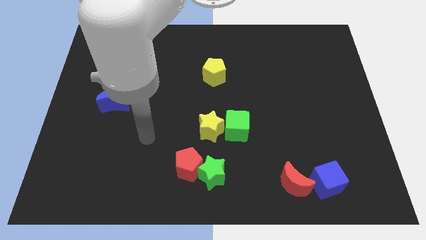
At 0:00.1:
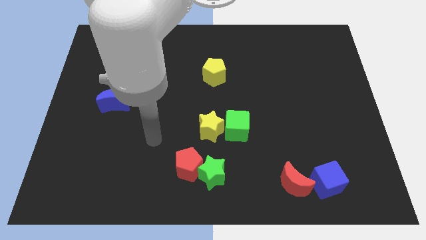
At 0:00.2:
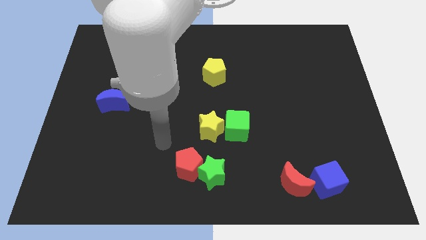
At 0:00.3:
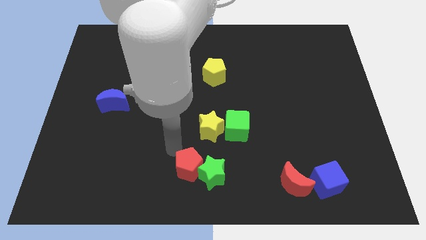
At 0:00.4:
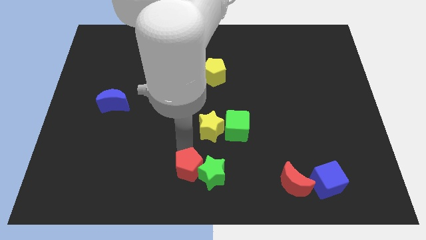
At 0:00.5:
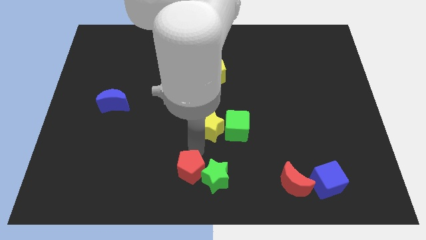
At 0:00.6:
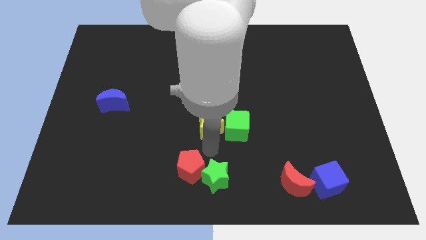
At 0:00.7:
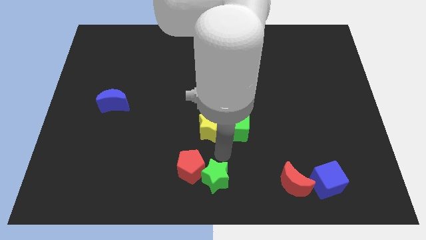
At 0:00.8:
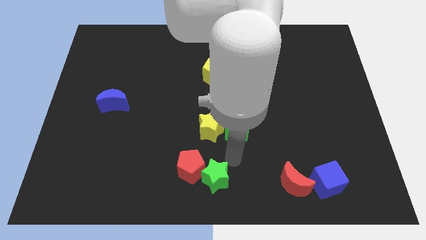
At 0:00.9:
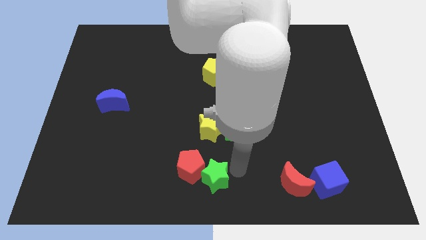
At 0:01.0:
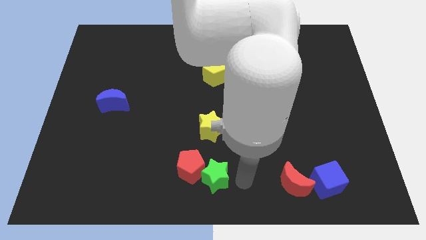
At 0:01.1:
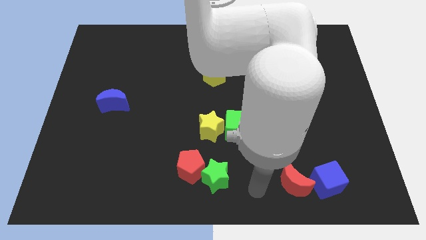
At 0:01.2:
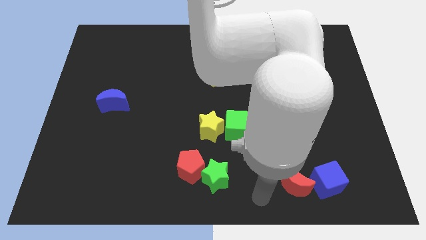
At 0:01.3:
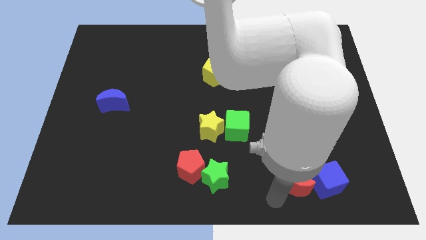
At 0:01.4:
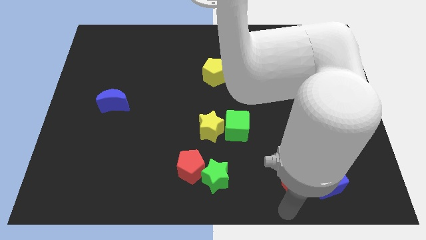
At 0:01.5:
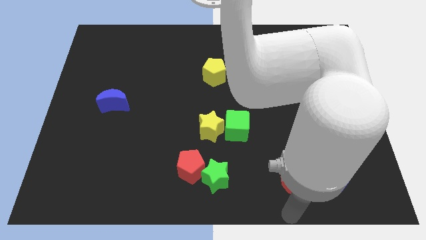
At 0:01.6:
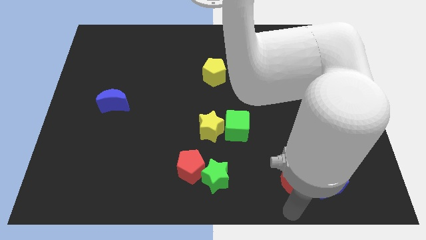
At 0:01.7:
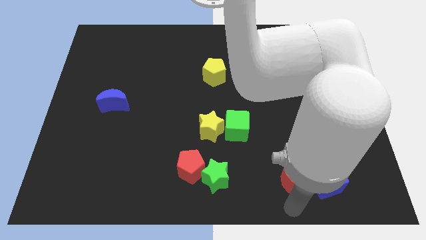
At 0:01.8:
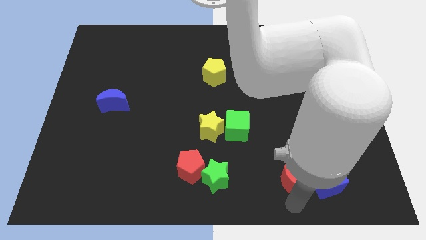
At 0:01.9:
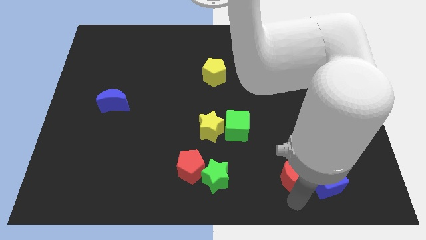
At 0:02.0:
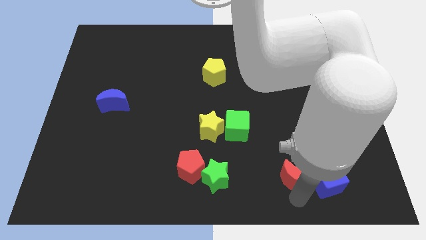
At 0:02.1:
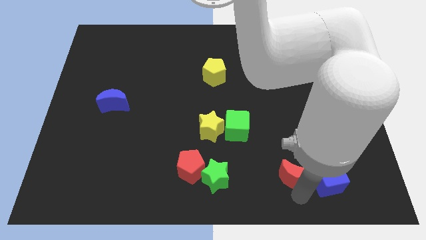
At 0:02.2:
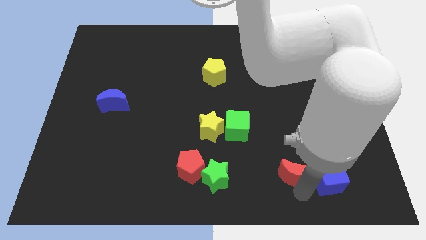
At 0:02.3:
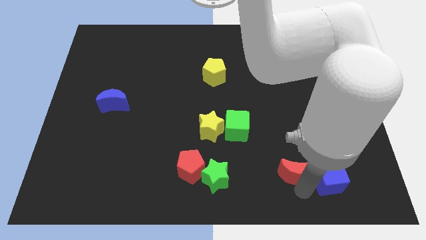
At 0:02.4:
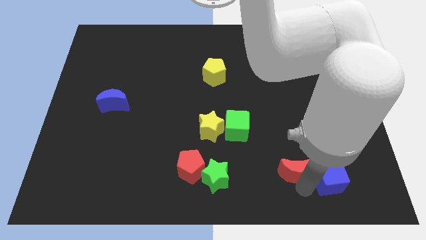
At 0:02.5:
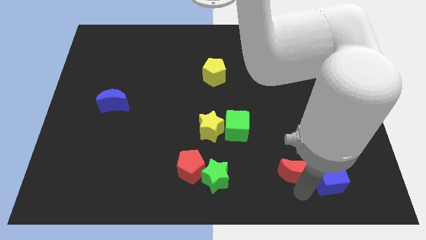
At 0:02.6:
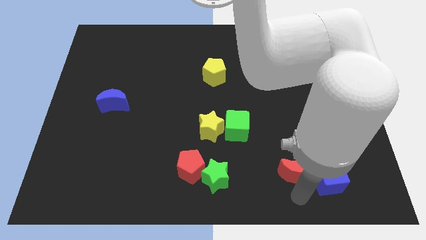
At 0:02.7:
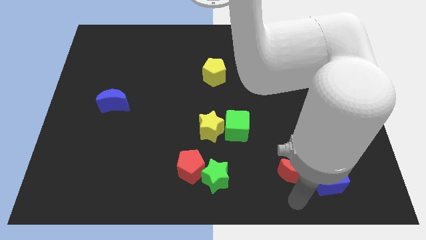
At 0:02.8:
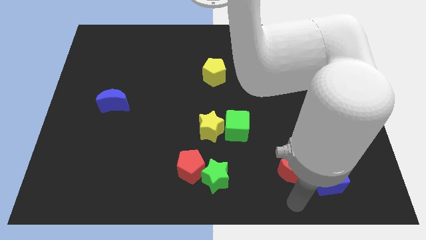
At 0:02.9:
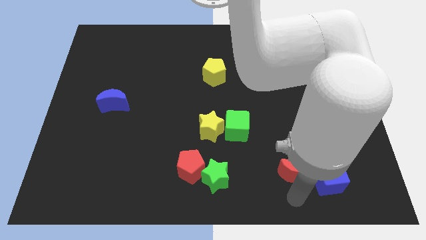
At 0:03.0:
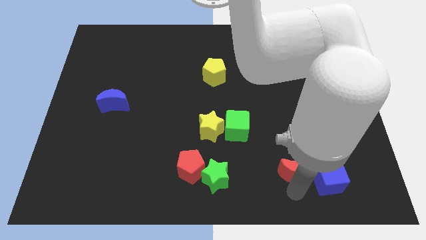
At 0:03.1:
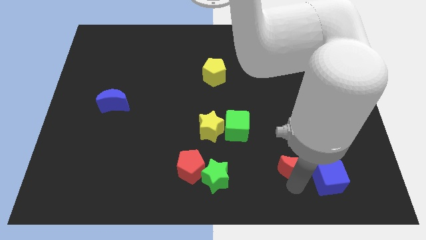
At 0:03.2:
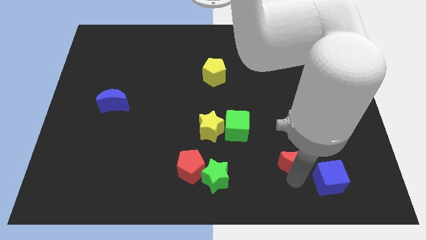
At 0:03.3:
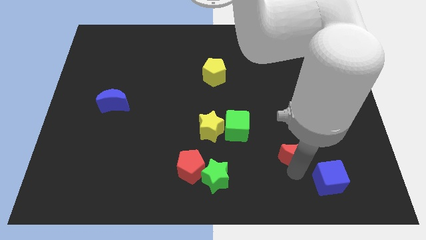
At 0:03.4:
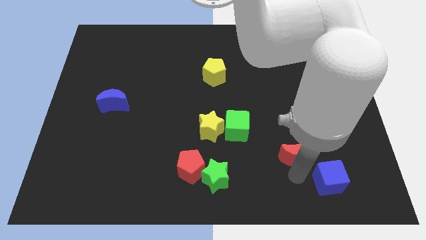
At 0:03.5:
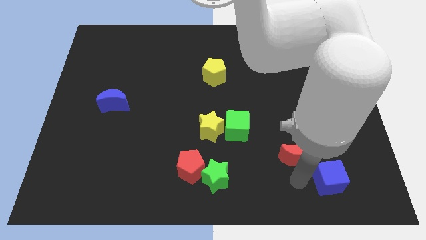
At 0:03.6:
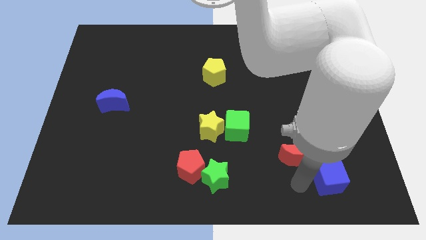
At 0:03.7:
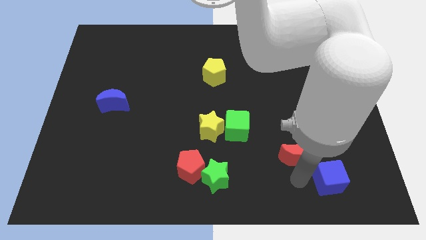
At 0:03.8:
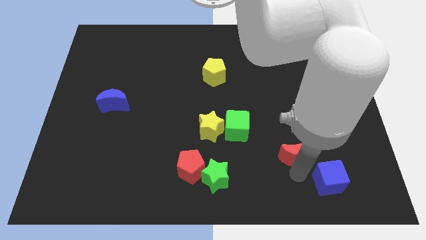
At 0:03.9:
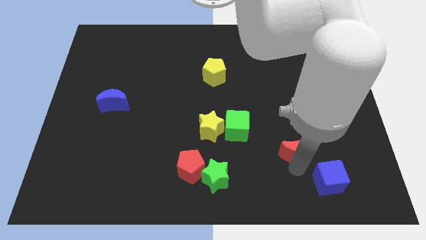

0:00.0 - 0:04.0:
push the red moon slightly up

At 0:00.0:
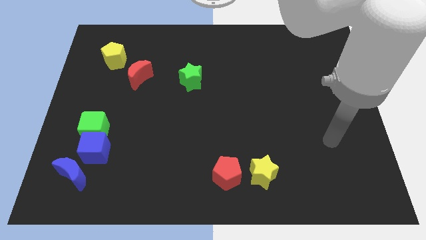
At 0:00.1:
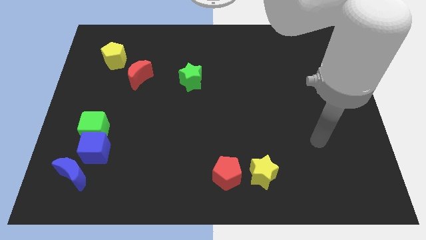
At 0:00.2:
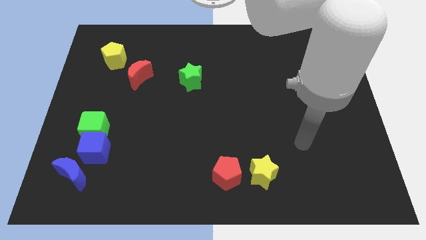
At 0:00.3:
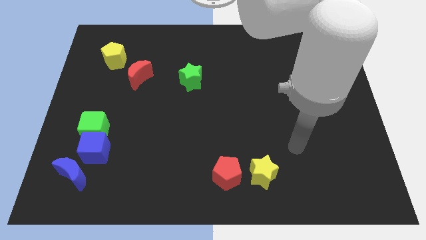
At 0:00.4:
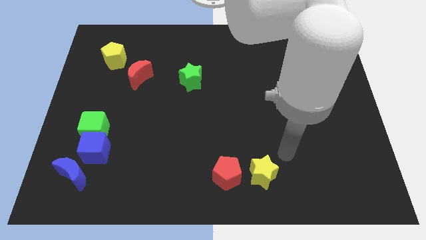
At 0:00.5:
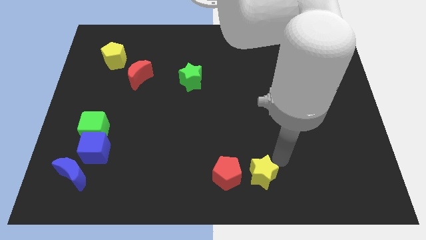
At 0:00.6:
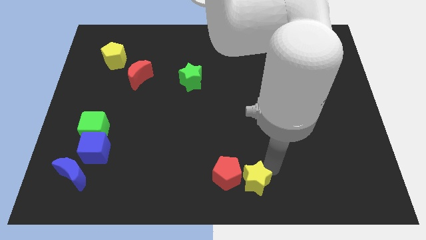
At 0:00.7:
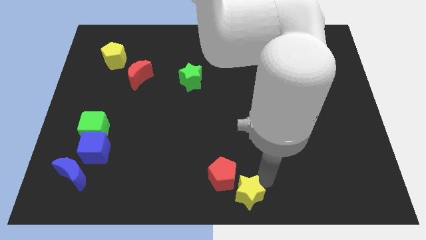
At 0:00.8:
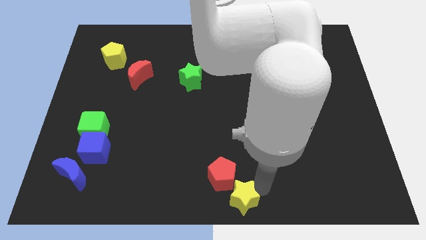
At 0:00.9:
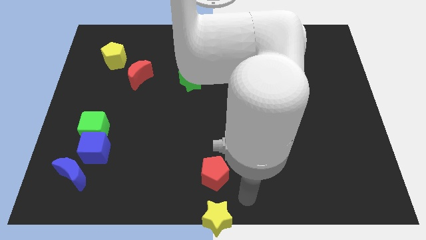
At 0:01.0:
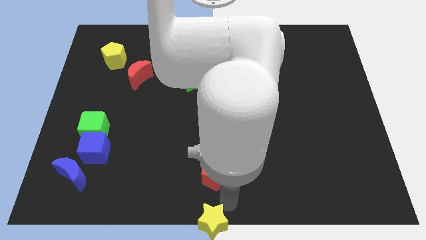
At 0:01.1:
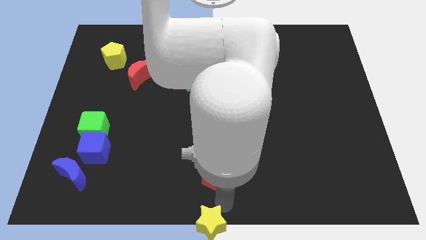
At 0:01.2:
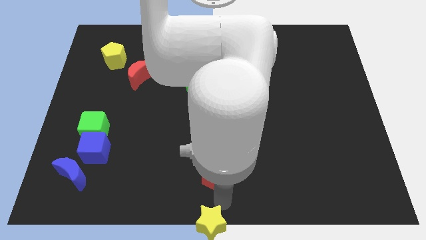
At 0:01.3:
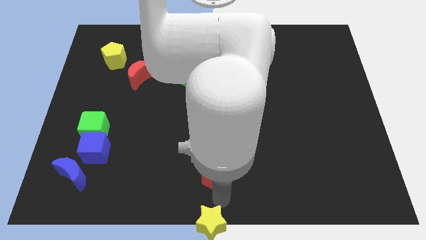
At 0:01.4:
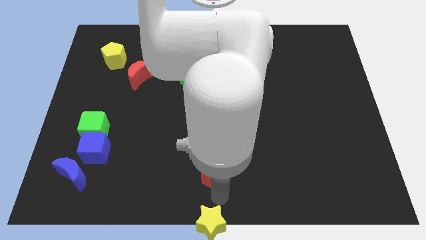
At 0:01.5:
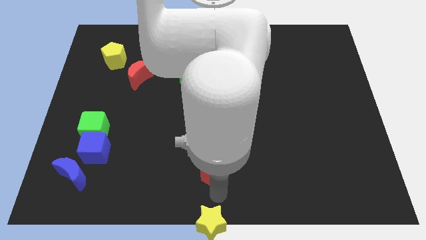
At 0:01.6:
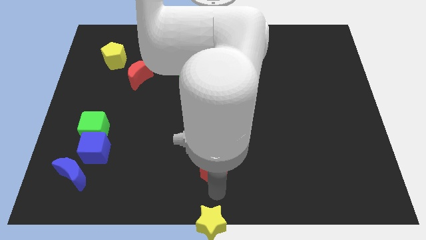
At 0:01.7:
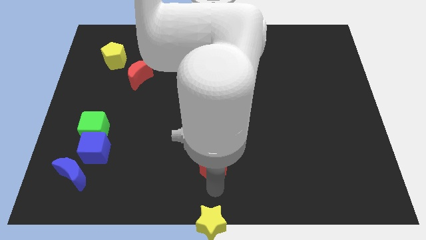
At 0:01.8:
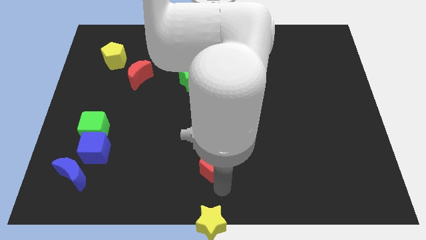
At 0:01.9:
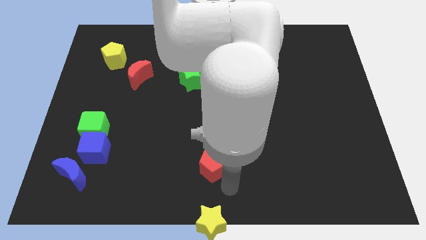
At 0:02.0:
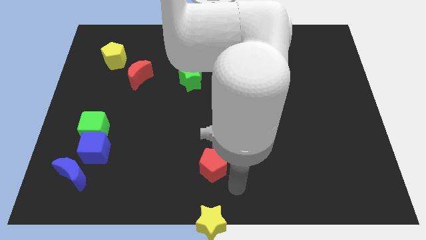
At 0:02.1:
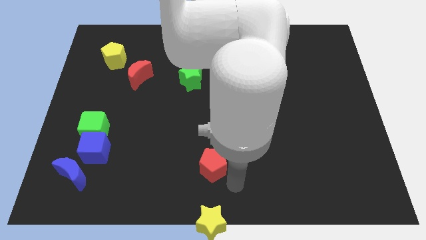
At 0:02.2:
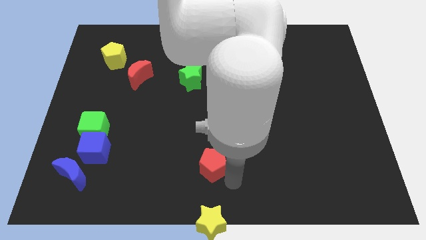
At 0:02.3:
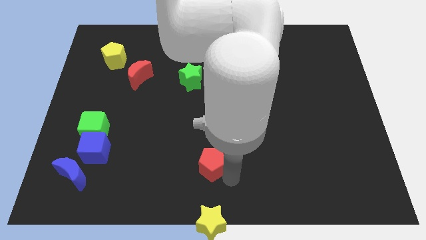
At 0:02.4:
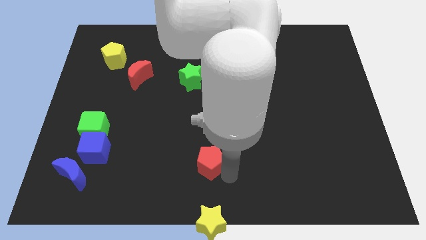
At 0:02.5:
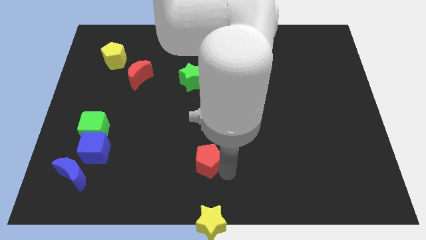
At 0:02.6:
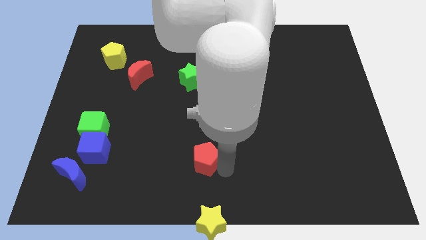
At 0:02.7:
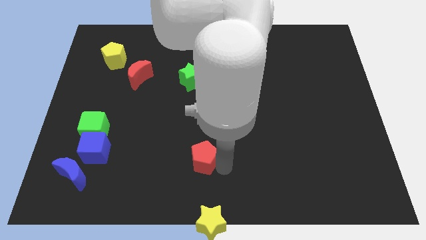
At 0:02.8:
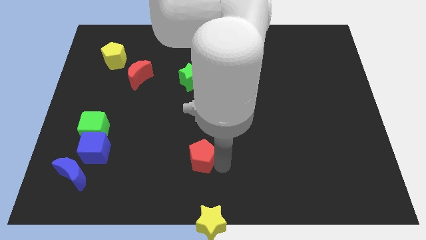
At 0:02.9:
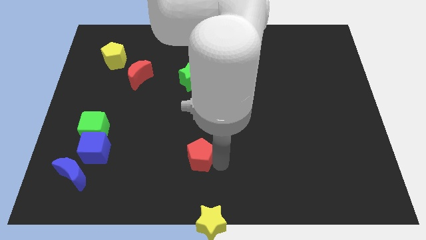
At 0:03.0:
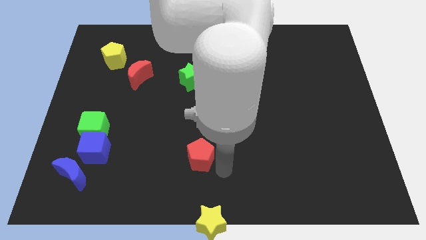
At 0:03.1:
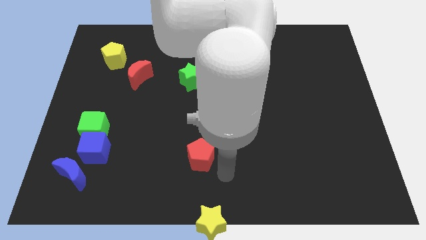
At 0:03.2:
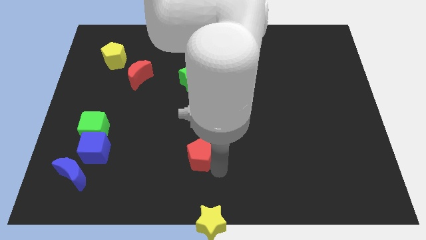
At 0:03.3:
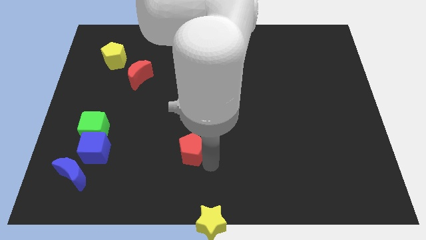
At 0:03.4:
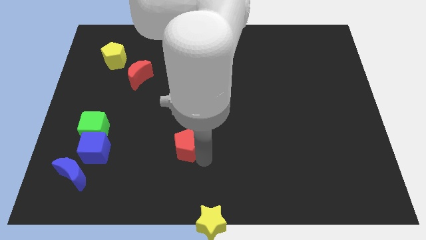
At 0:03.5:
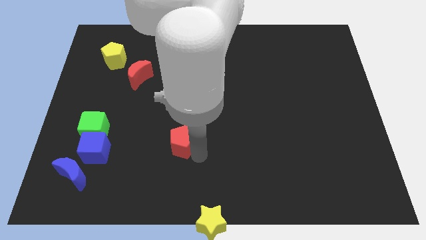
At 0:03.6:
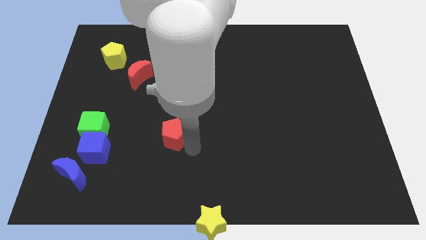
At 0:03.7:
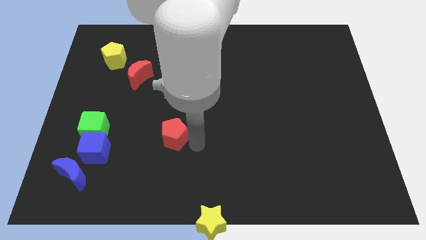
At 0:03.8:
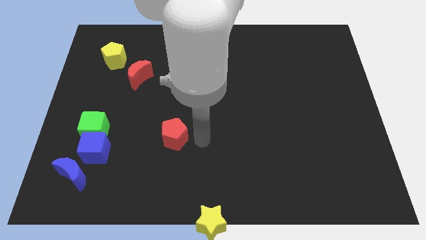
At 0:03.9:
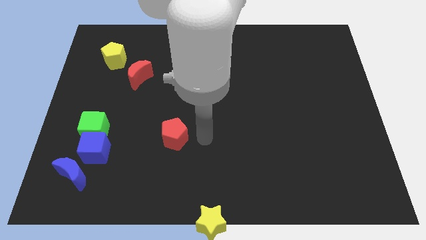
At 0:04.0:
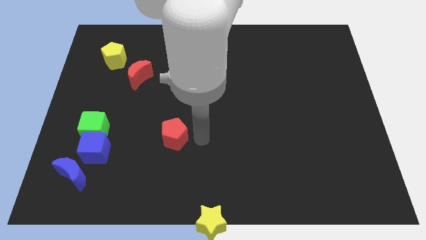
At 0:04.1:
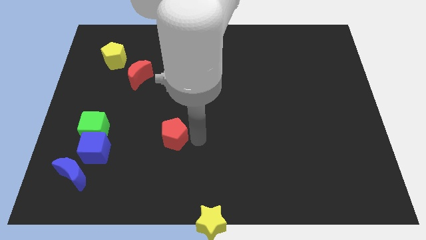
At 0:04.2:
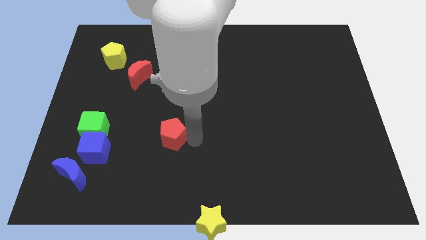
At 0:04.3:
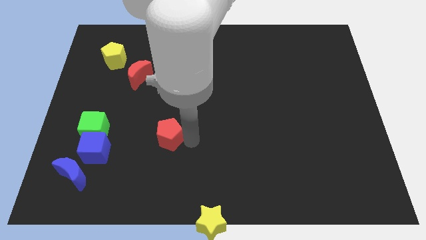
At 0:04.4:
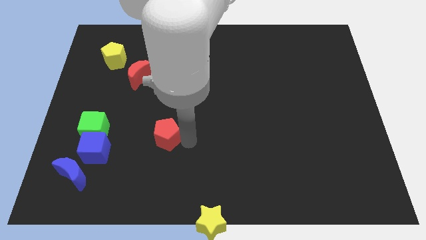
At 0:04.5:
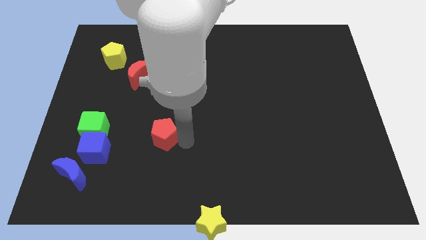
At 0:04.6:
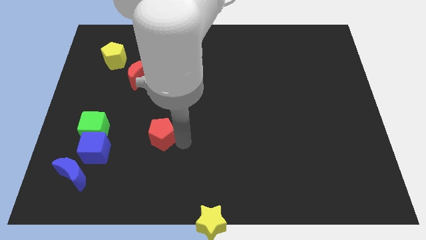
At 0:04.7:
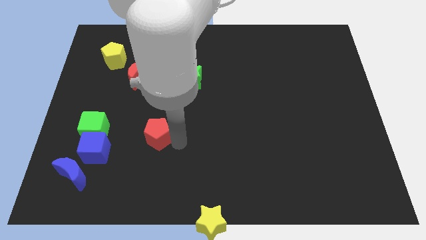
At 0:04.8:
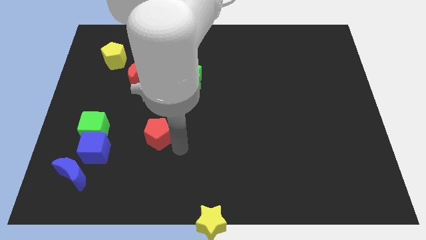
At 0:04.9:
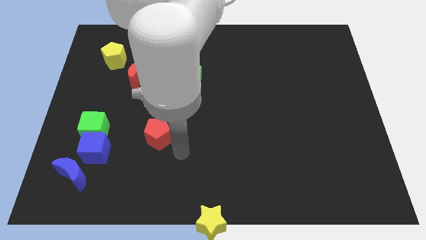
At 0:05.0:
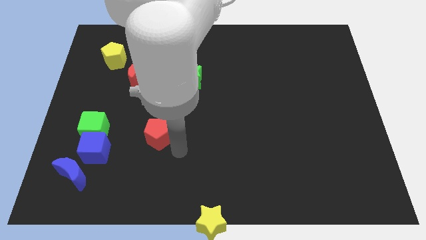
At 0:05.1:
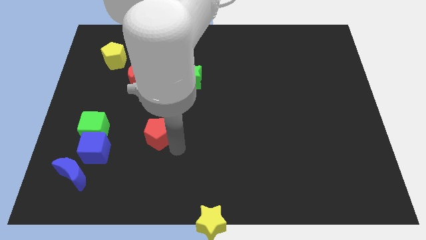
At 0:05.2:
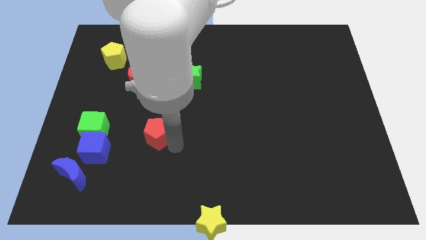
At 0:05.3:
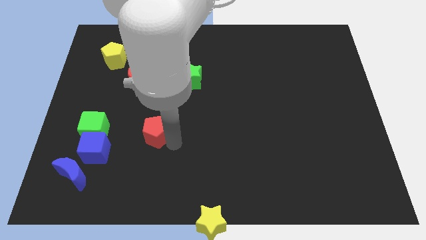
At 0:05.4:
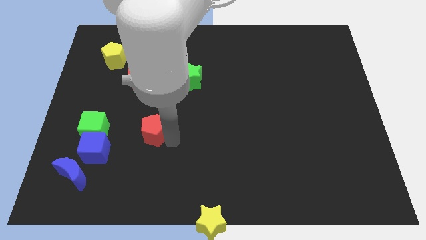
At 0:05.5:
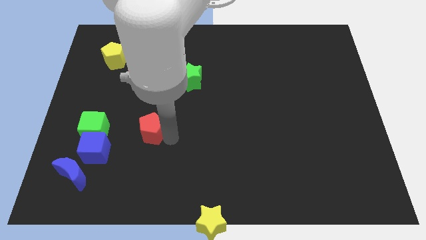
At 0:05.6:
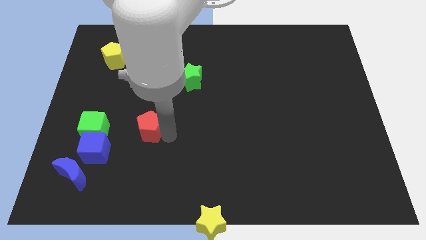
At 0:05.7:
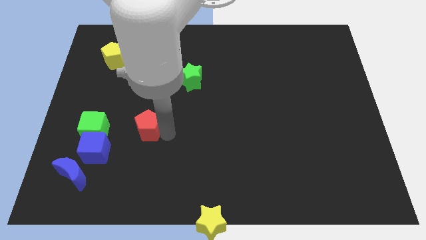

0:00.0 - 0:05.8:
push the red pentagon up and then to the left
